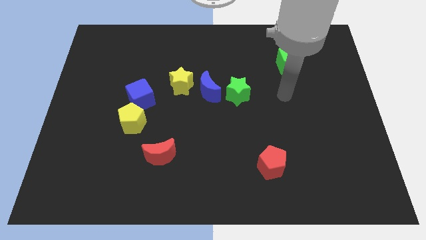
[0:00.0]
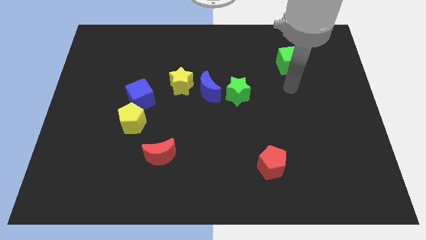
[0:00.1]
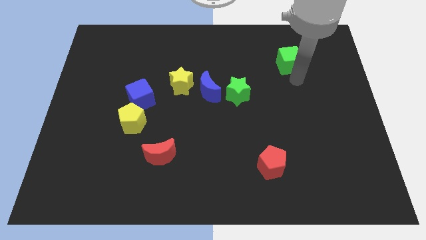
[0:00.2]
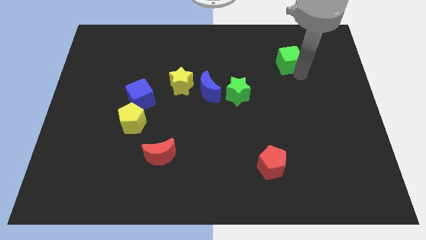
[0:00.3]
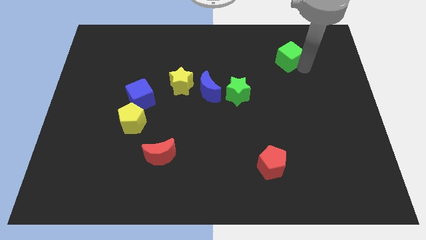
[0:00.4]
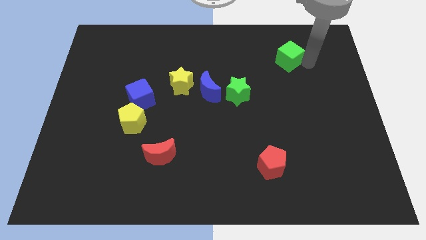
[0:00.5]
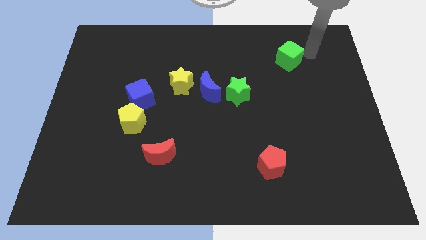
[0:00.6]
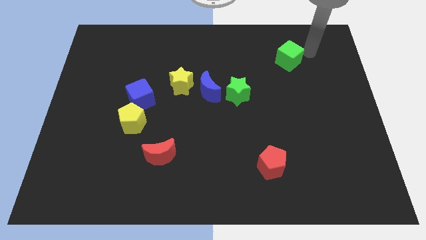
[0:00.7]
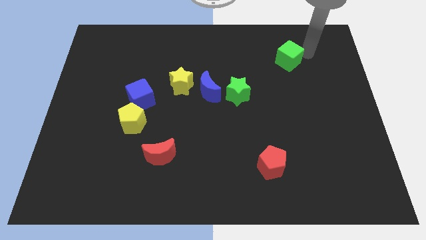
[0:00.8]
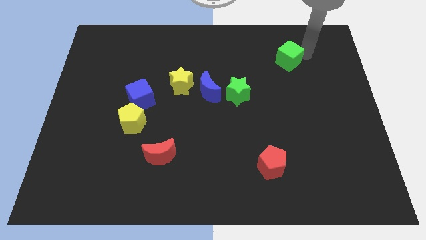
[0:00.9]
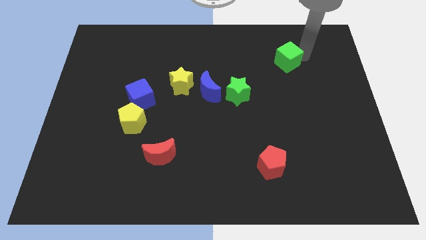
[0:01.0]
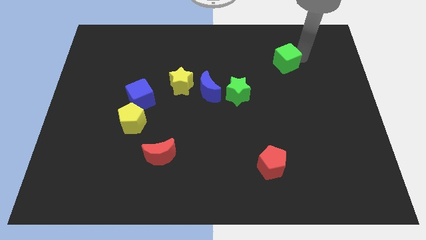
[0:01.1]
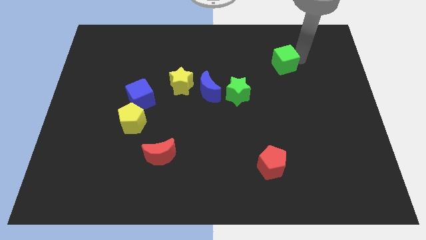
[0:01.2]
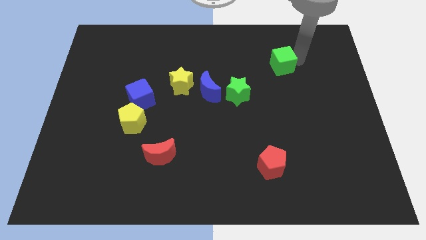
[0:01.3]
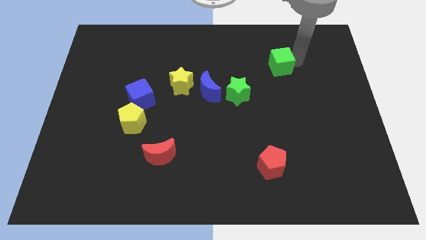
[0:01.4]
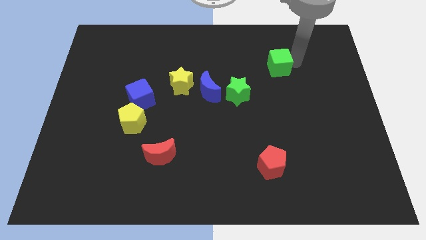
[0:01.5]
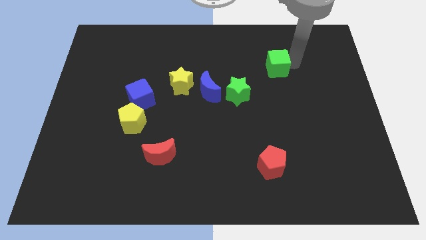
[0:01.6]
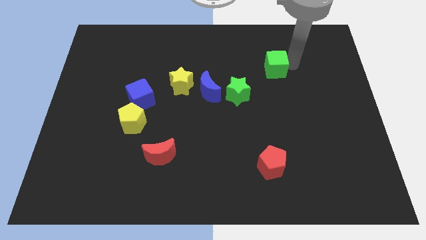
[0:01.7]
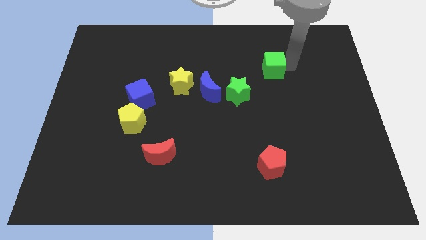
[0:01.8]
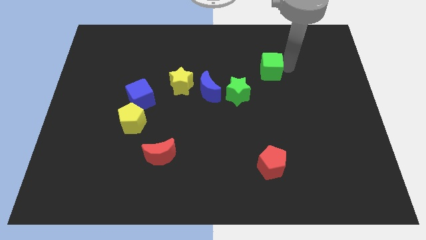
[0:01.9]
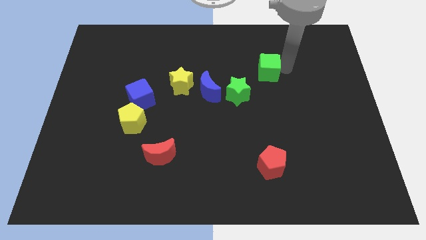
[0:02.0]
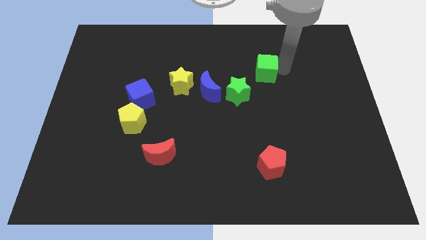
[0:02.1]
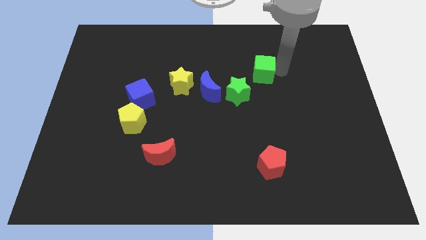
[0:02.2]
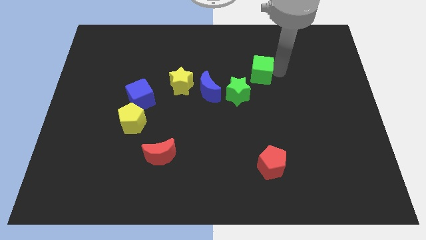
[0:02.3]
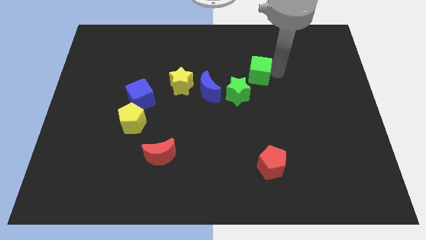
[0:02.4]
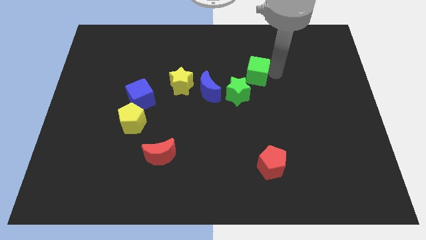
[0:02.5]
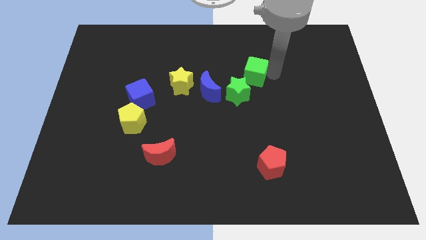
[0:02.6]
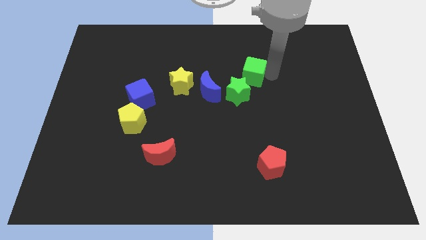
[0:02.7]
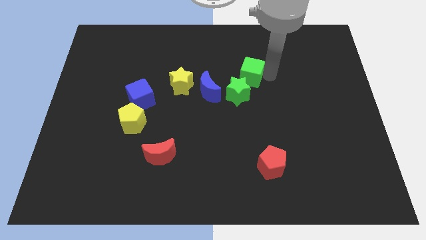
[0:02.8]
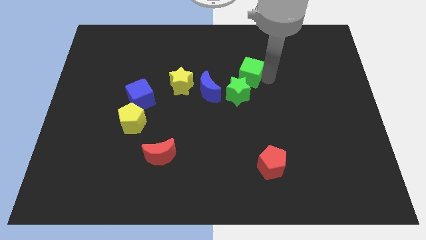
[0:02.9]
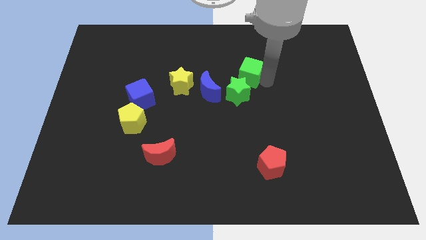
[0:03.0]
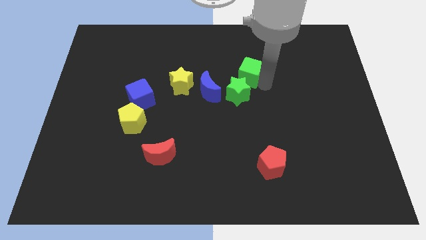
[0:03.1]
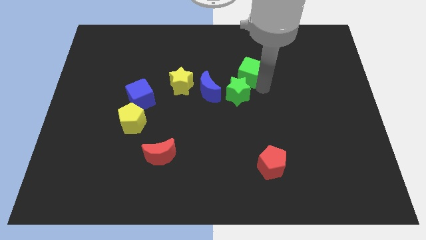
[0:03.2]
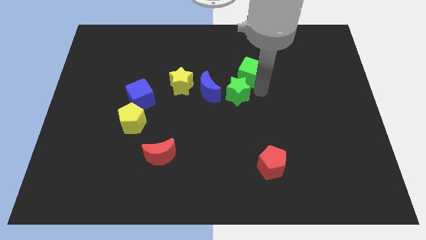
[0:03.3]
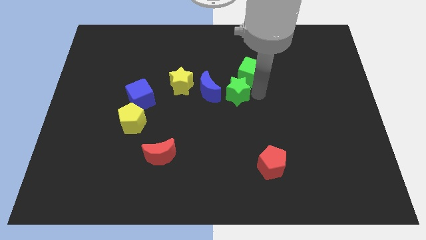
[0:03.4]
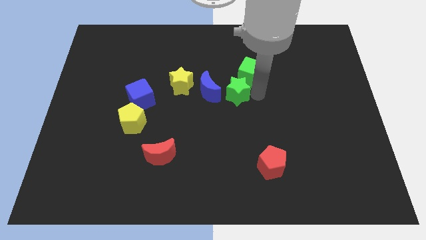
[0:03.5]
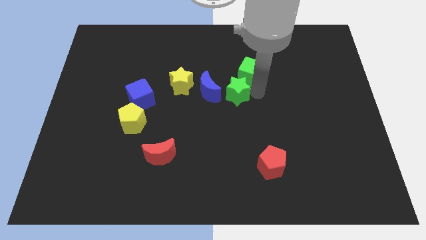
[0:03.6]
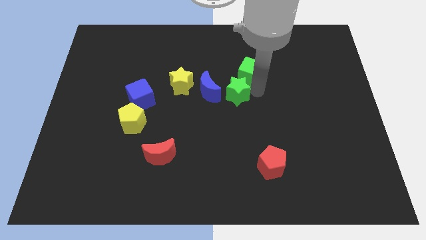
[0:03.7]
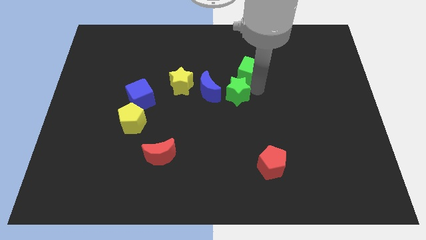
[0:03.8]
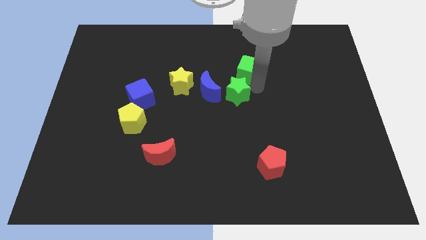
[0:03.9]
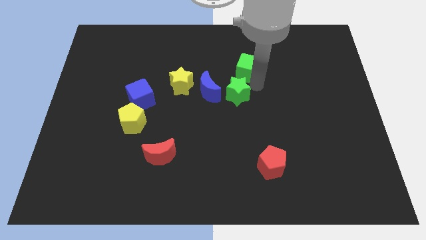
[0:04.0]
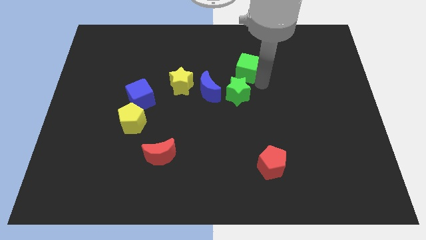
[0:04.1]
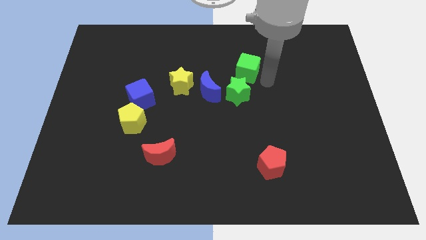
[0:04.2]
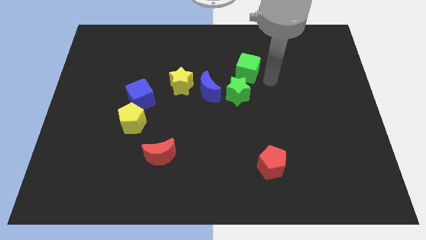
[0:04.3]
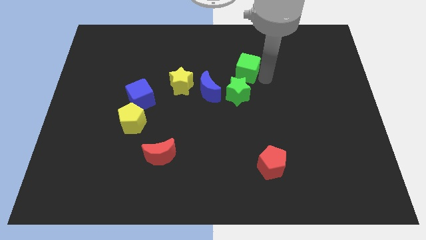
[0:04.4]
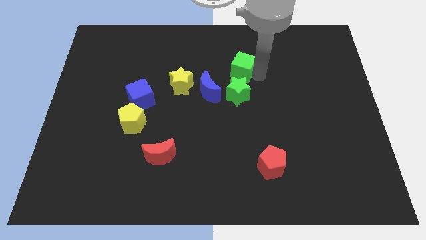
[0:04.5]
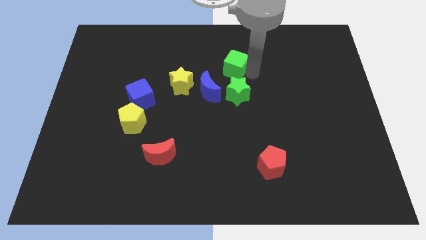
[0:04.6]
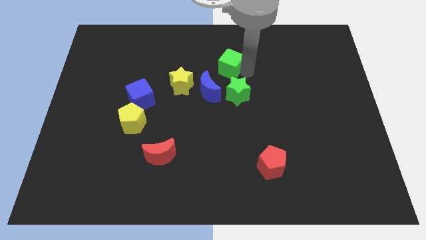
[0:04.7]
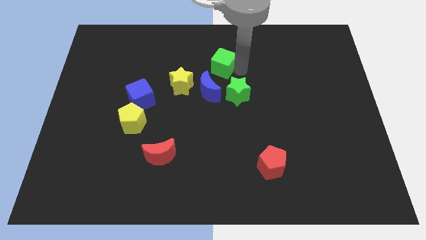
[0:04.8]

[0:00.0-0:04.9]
push the green cube above the blue moon

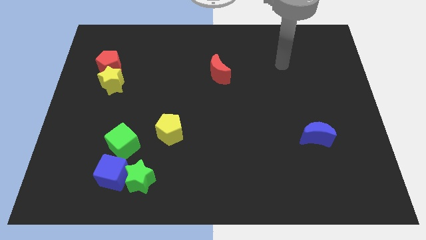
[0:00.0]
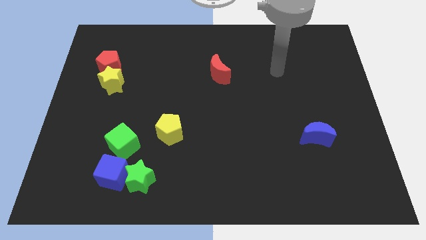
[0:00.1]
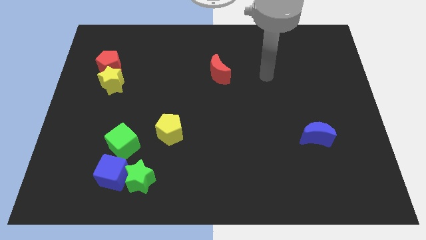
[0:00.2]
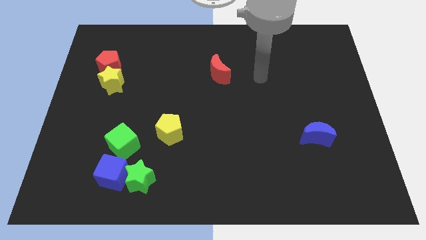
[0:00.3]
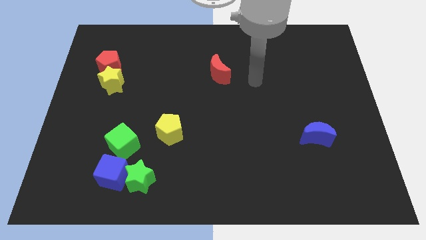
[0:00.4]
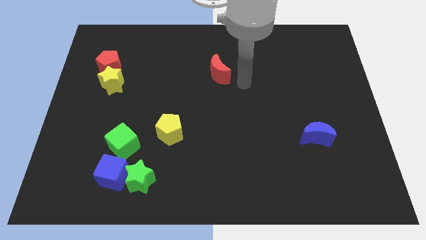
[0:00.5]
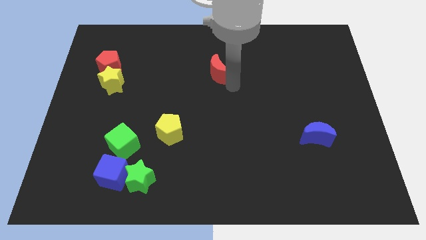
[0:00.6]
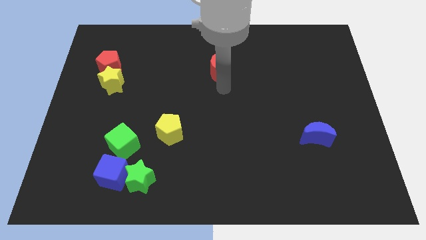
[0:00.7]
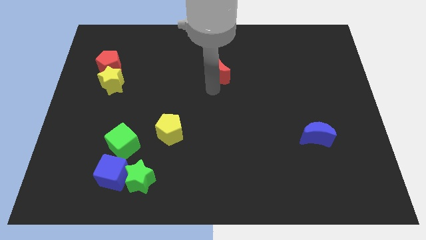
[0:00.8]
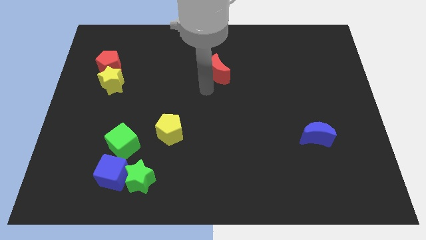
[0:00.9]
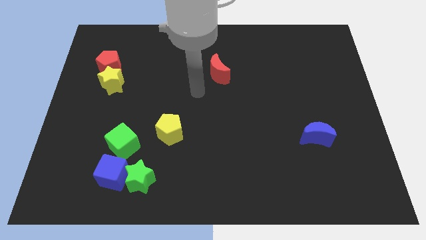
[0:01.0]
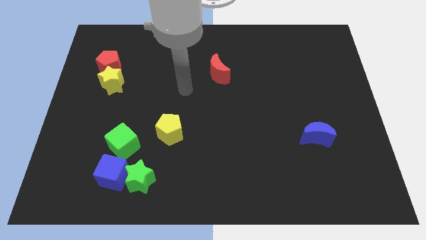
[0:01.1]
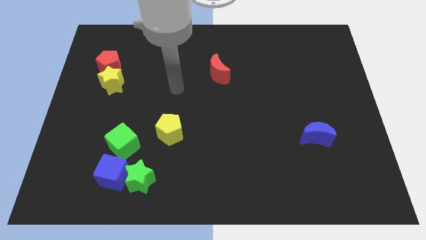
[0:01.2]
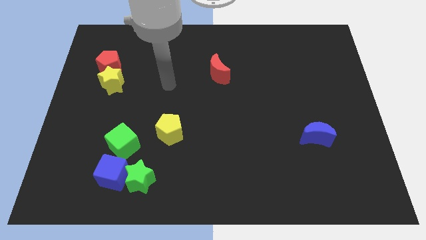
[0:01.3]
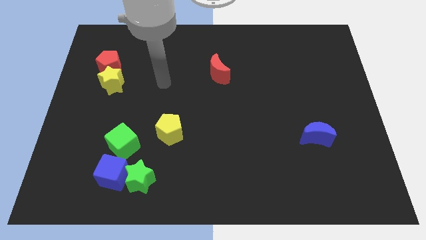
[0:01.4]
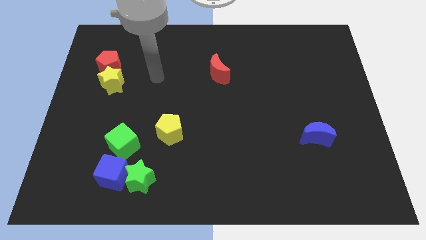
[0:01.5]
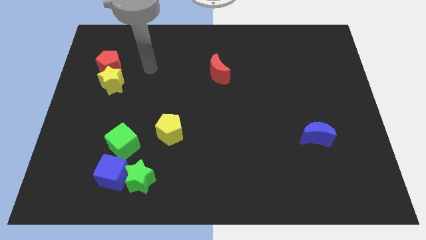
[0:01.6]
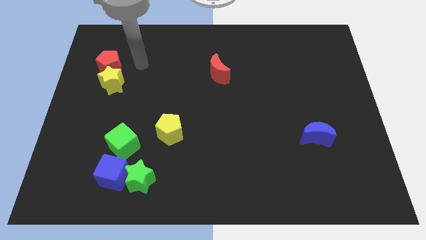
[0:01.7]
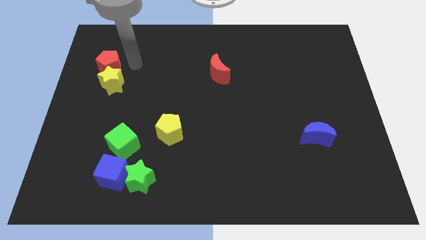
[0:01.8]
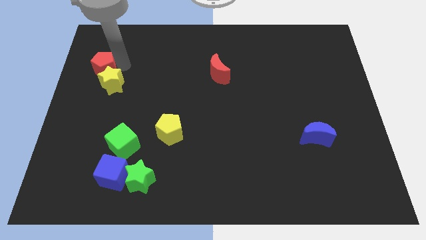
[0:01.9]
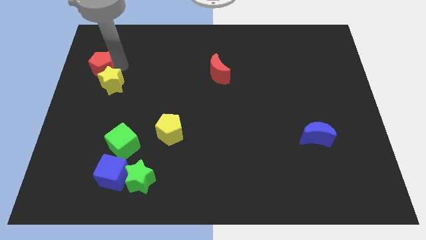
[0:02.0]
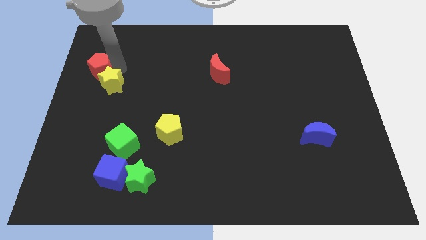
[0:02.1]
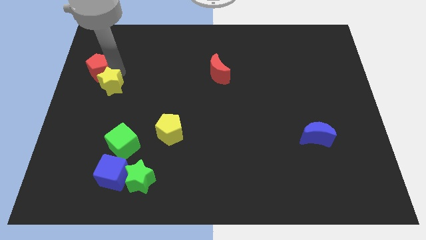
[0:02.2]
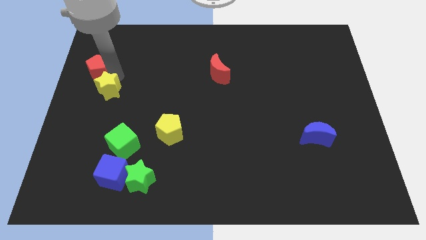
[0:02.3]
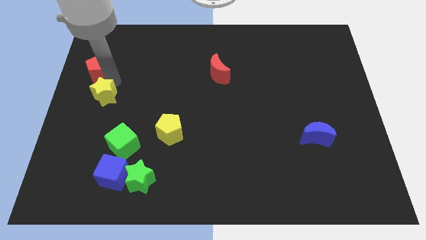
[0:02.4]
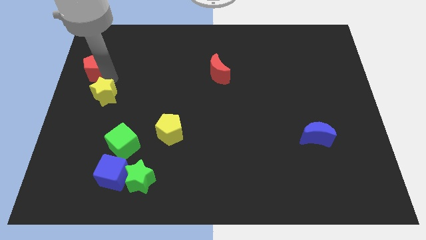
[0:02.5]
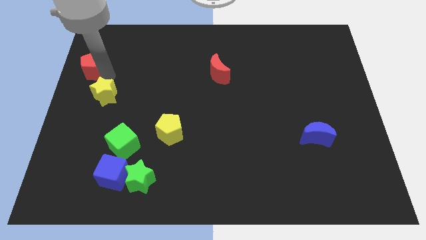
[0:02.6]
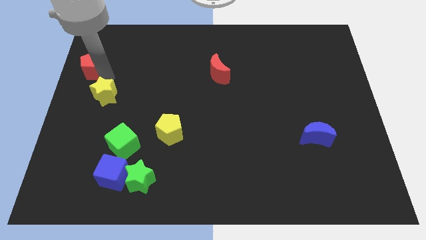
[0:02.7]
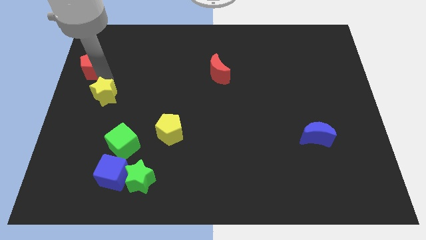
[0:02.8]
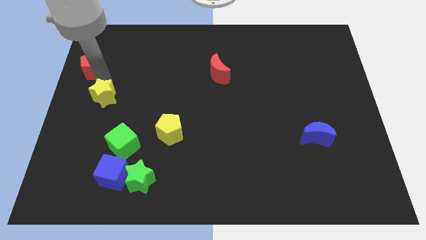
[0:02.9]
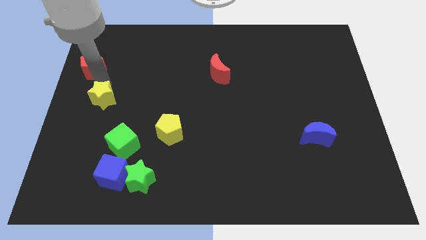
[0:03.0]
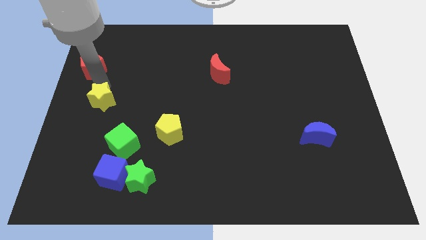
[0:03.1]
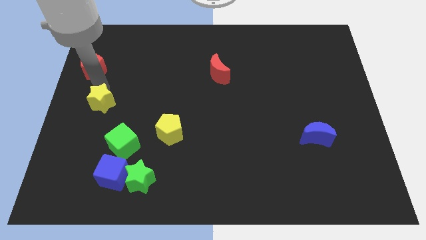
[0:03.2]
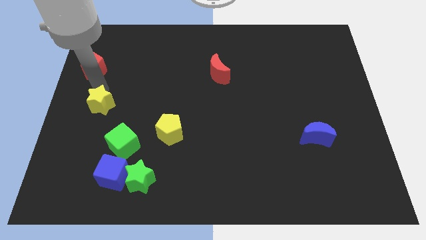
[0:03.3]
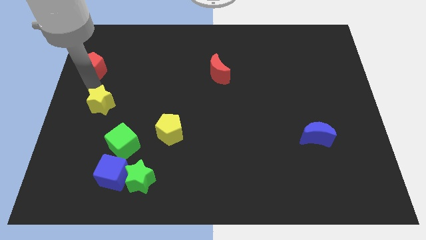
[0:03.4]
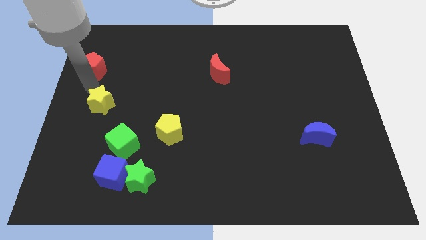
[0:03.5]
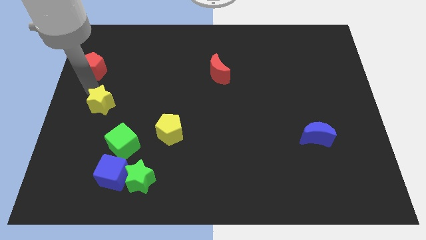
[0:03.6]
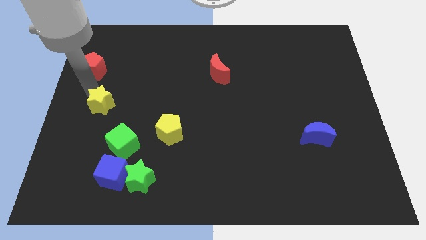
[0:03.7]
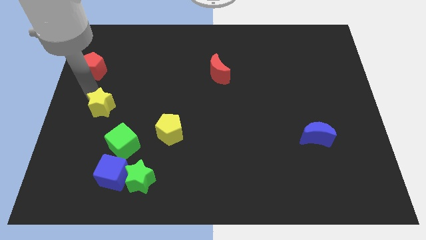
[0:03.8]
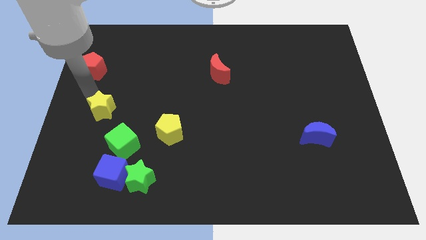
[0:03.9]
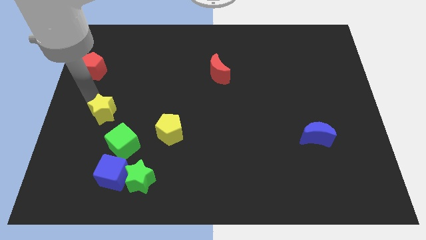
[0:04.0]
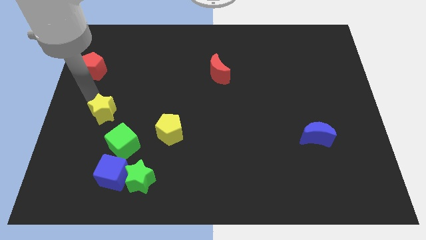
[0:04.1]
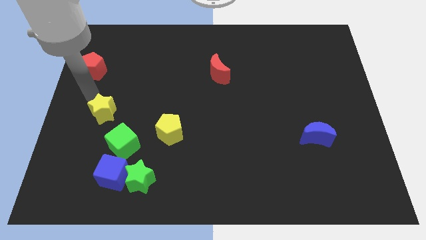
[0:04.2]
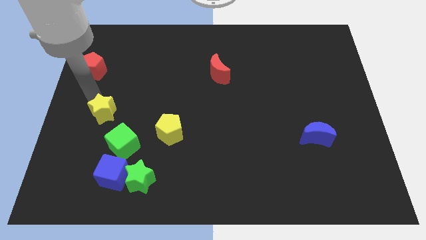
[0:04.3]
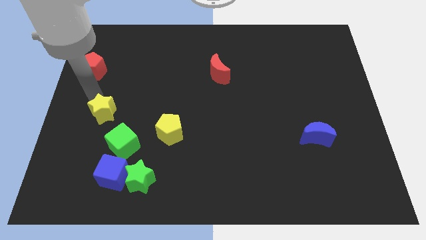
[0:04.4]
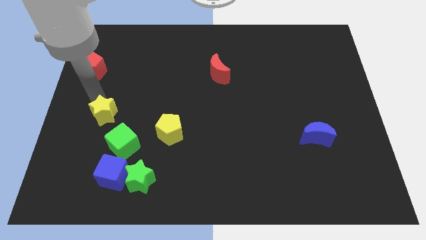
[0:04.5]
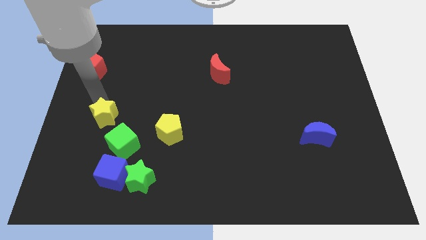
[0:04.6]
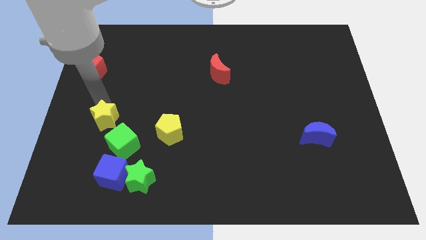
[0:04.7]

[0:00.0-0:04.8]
push the yellow star above the blue cube
